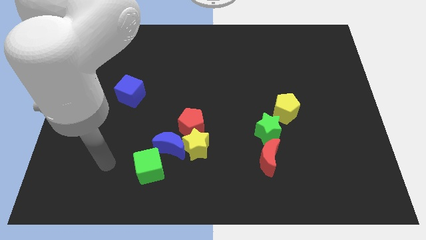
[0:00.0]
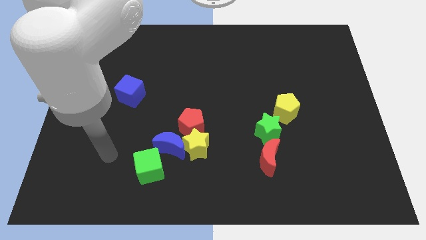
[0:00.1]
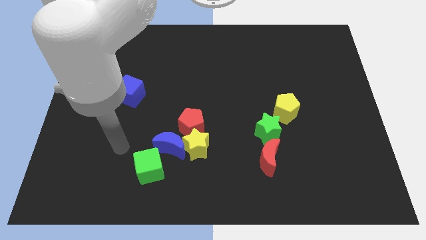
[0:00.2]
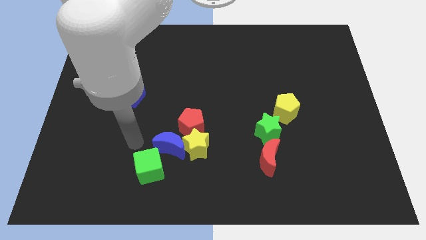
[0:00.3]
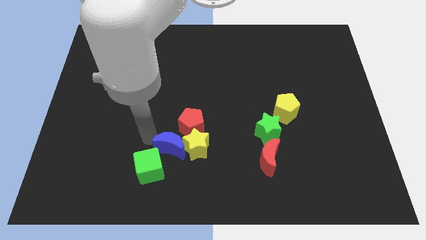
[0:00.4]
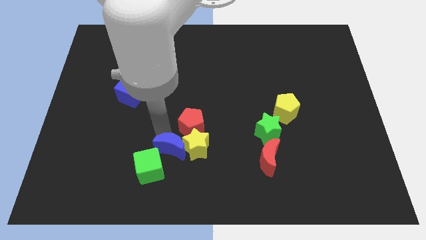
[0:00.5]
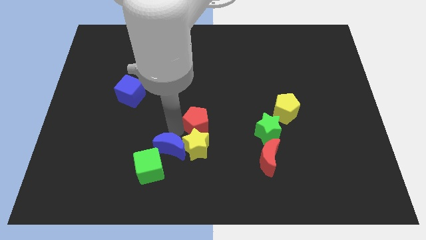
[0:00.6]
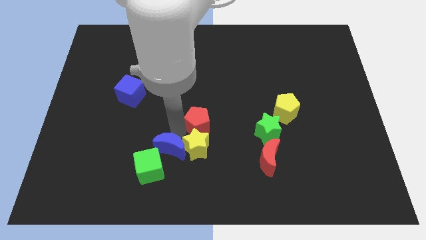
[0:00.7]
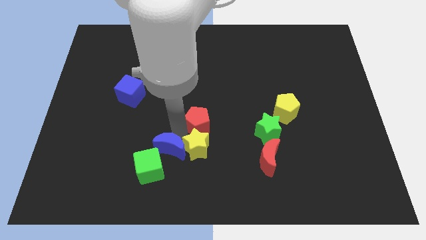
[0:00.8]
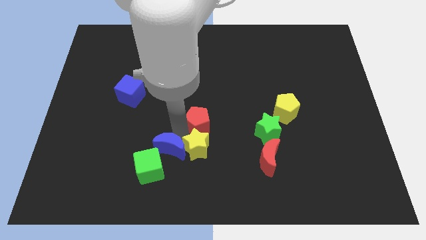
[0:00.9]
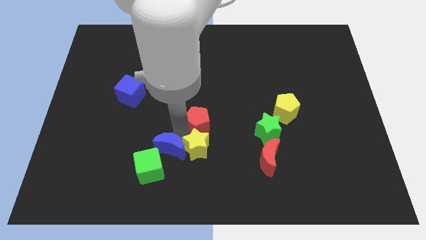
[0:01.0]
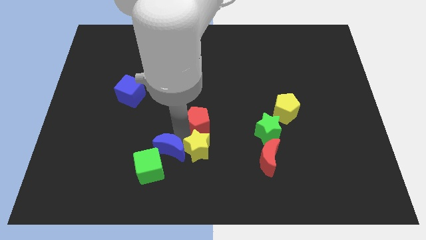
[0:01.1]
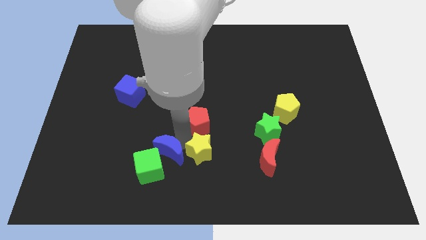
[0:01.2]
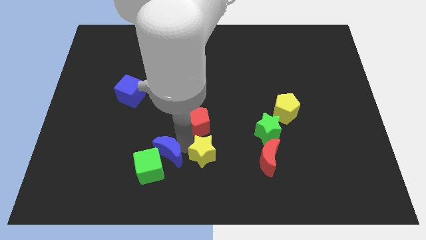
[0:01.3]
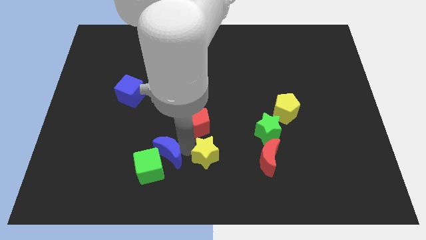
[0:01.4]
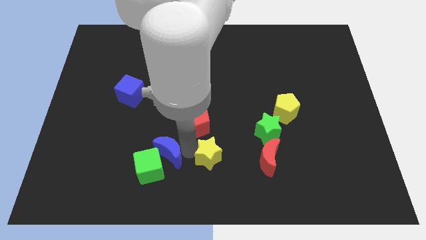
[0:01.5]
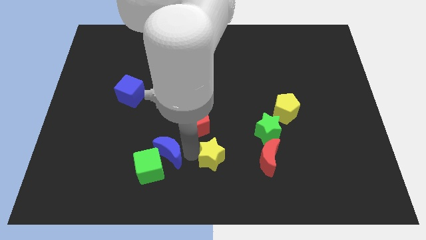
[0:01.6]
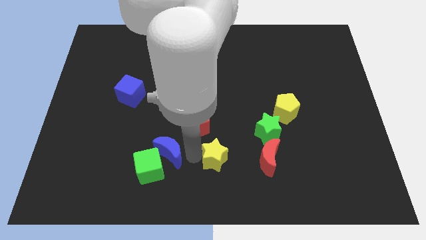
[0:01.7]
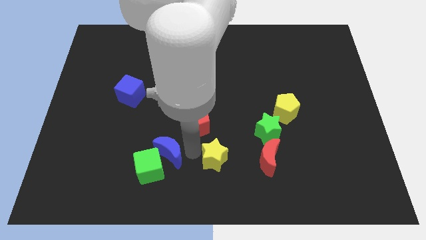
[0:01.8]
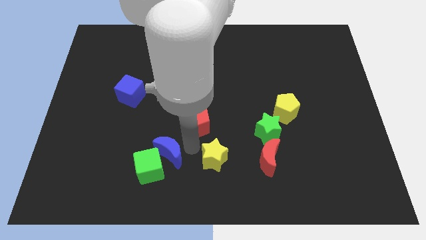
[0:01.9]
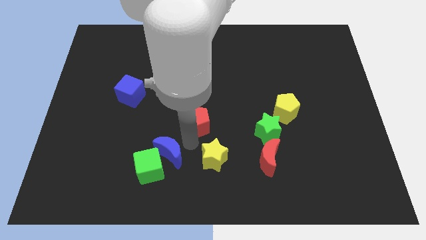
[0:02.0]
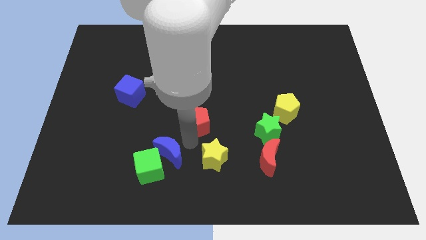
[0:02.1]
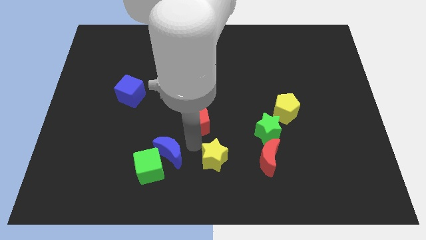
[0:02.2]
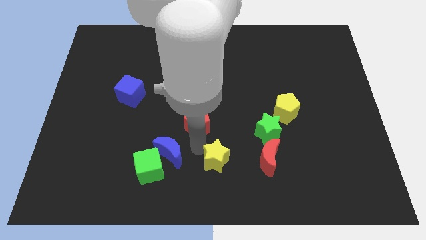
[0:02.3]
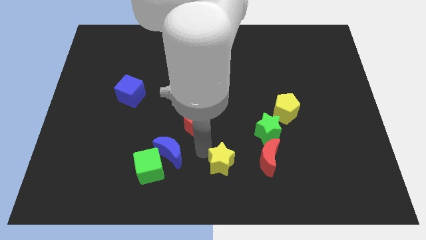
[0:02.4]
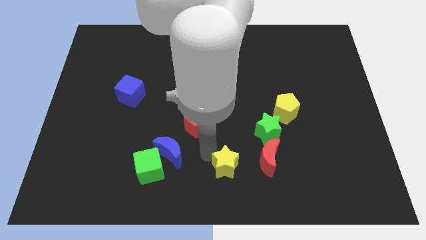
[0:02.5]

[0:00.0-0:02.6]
pull the yellow star apart from the blue moon and red pentagon

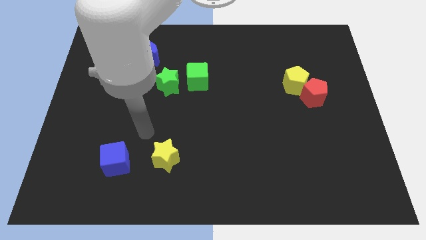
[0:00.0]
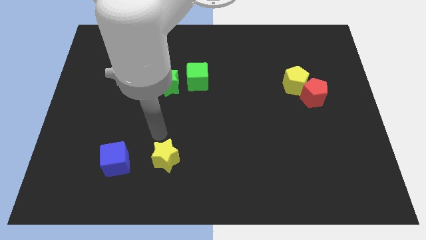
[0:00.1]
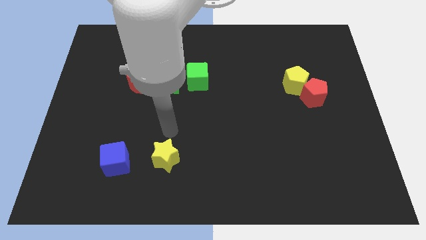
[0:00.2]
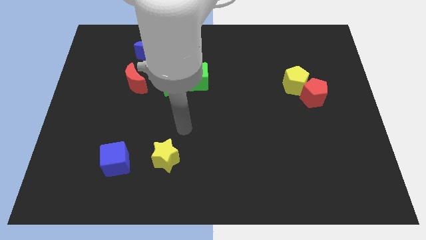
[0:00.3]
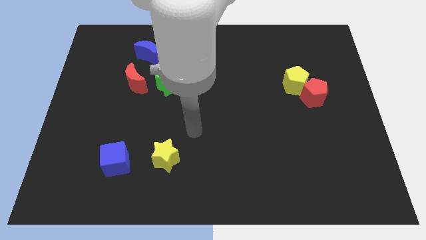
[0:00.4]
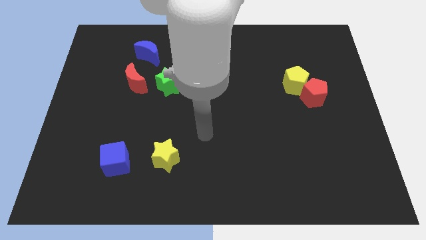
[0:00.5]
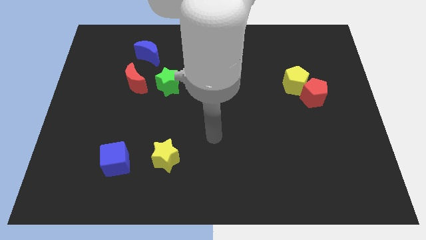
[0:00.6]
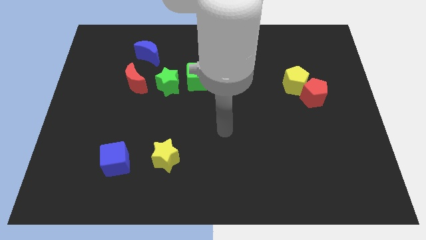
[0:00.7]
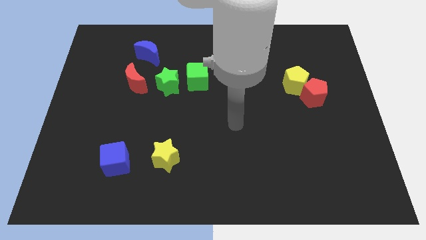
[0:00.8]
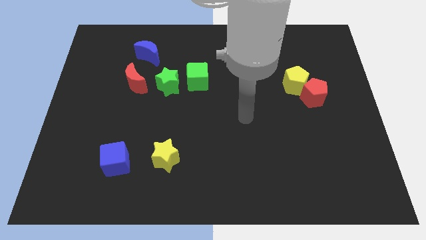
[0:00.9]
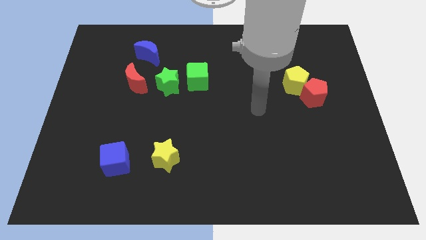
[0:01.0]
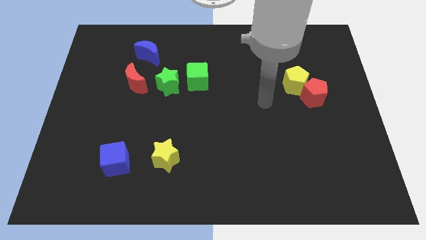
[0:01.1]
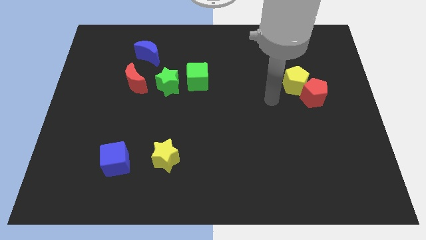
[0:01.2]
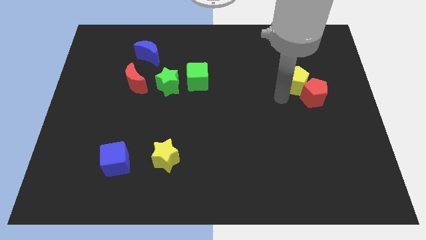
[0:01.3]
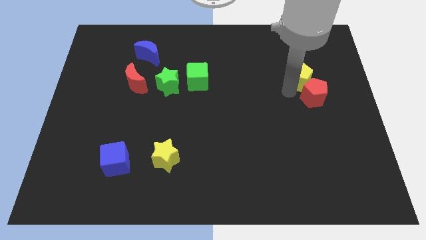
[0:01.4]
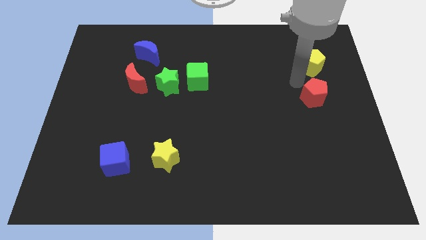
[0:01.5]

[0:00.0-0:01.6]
move the red pentagon away from the yellow pentagon

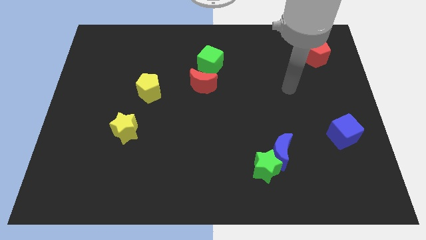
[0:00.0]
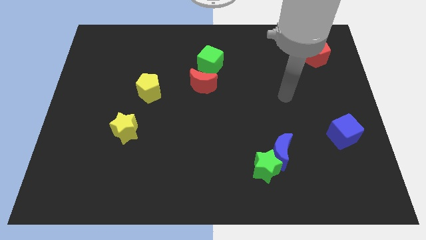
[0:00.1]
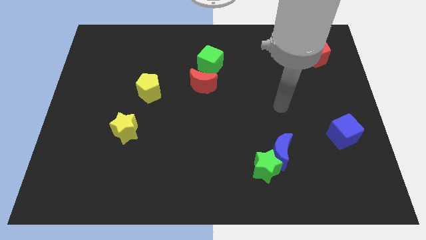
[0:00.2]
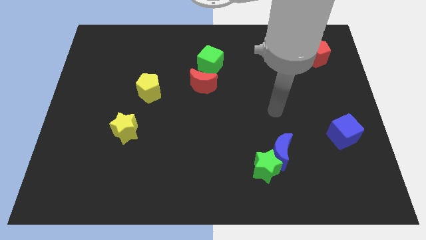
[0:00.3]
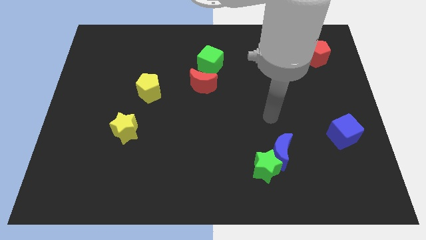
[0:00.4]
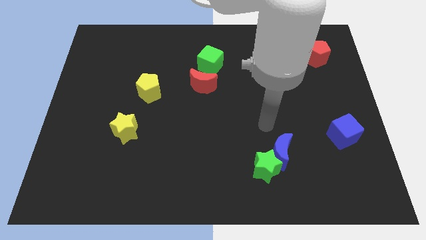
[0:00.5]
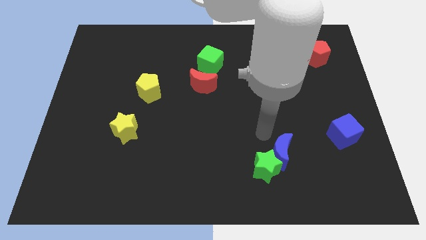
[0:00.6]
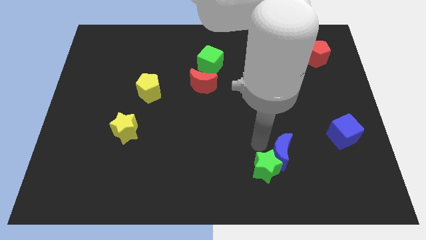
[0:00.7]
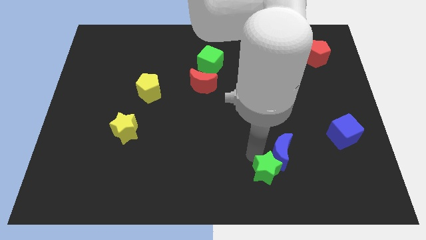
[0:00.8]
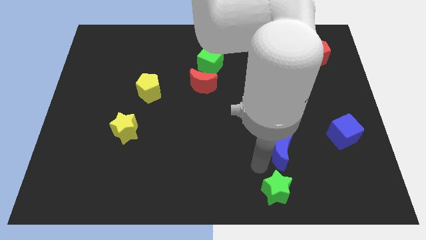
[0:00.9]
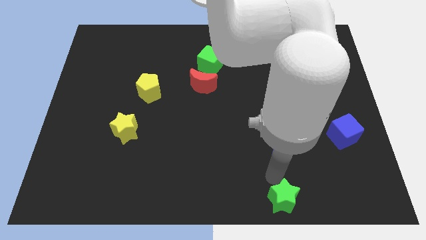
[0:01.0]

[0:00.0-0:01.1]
separate the blue moon from the green star

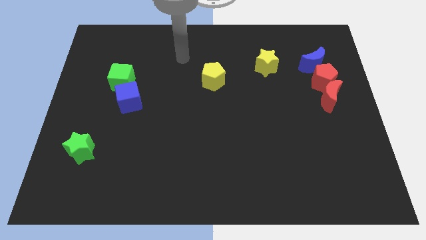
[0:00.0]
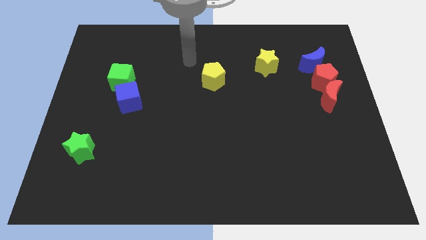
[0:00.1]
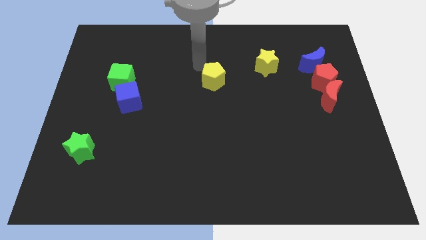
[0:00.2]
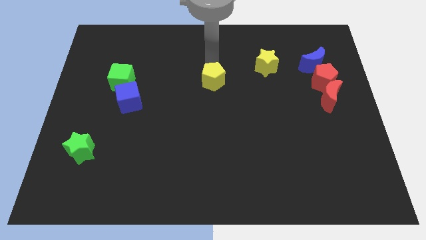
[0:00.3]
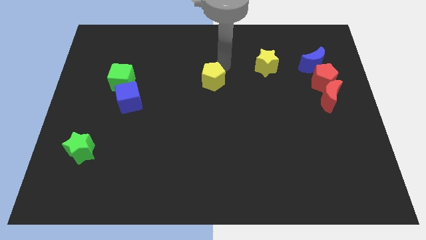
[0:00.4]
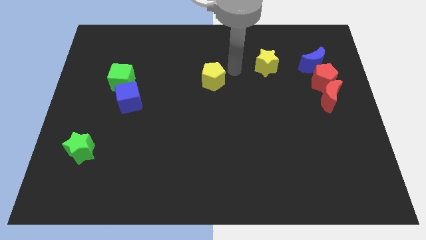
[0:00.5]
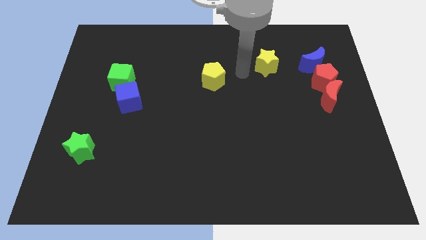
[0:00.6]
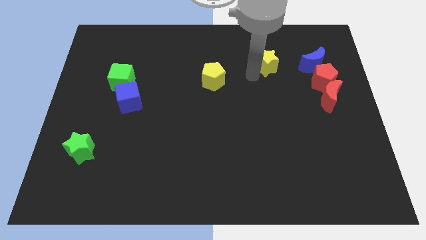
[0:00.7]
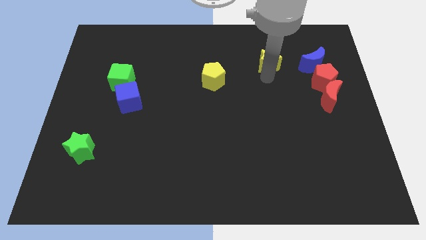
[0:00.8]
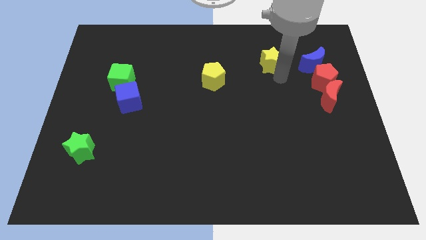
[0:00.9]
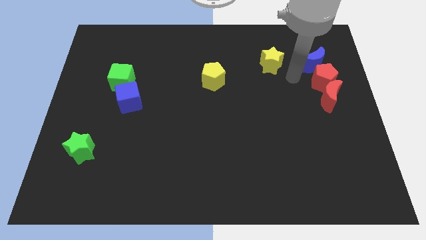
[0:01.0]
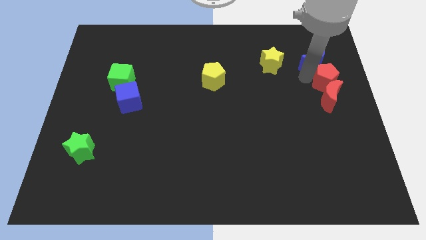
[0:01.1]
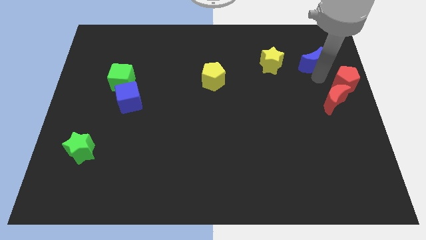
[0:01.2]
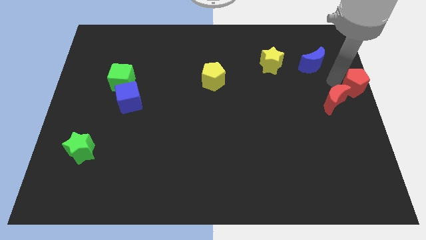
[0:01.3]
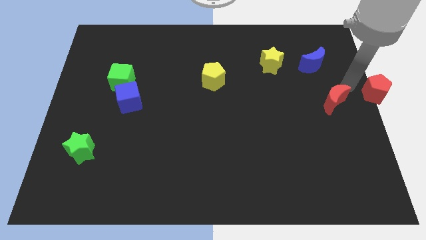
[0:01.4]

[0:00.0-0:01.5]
move the red moon away from the red pentagon

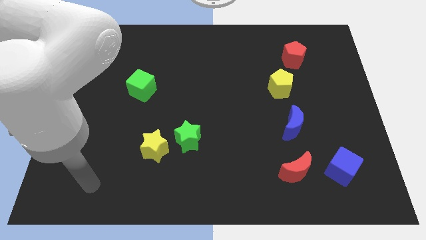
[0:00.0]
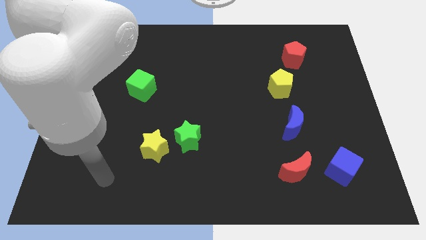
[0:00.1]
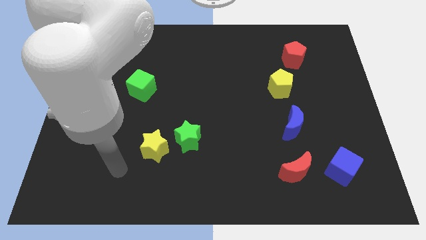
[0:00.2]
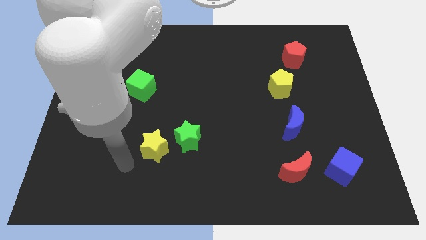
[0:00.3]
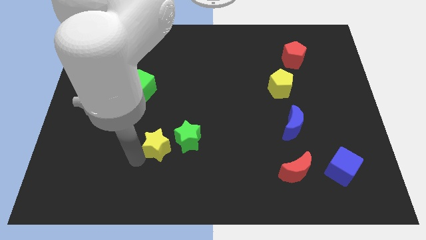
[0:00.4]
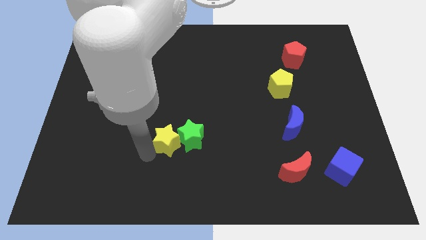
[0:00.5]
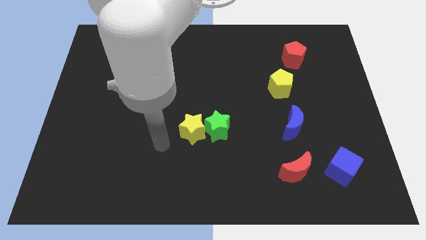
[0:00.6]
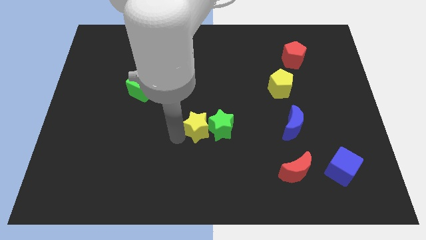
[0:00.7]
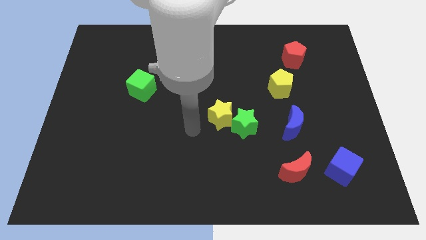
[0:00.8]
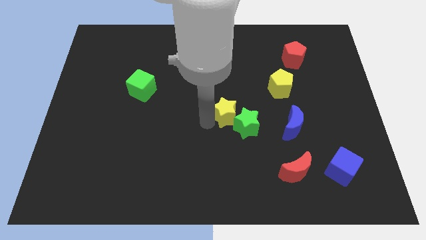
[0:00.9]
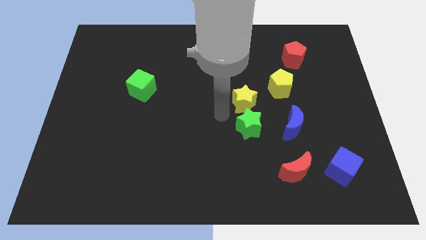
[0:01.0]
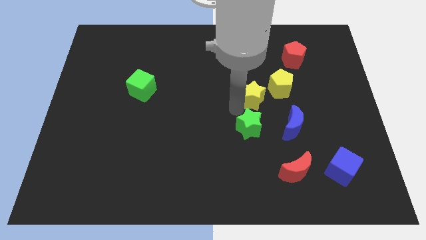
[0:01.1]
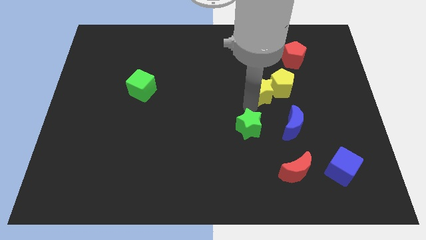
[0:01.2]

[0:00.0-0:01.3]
pull the green star apart from the yellow star

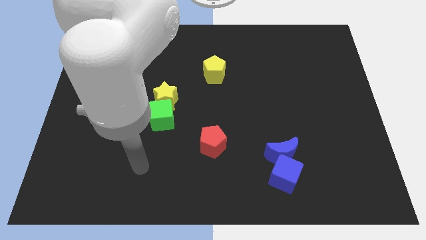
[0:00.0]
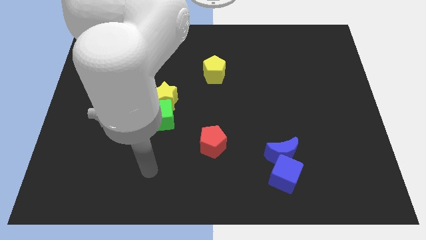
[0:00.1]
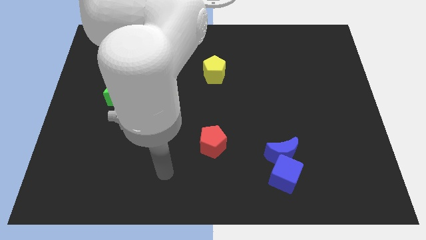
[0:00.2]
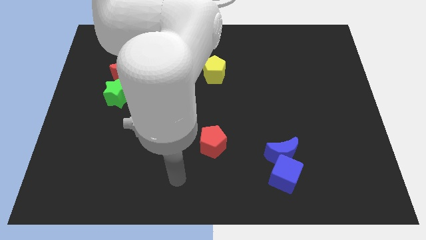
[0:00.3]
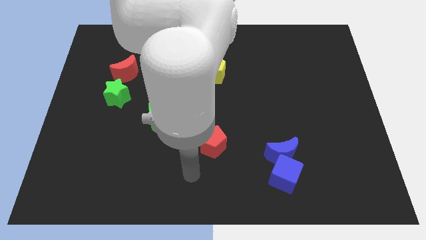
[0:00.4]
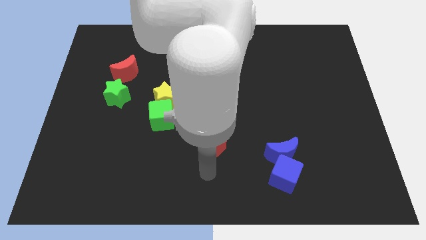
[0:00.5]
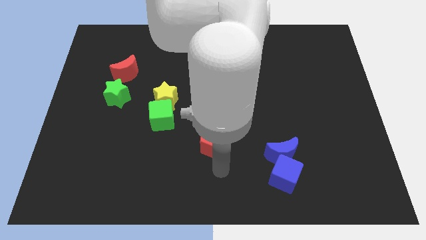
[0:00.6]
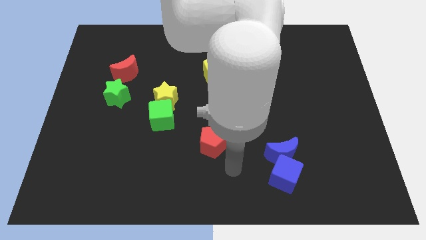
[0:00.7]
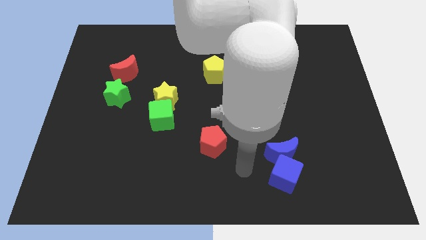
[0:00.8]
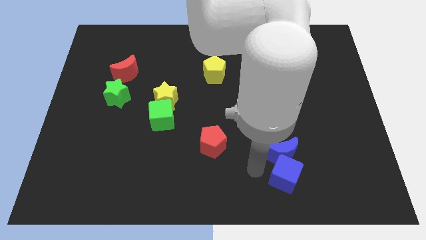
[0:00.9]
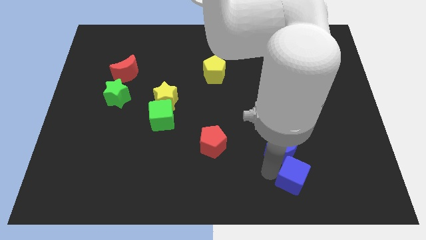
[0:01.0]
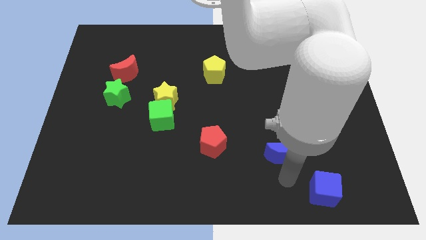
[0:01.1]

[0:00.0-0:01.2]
separate the blue moon from the blue cube
